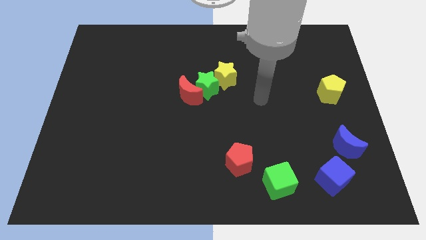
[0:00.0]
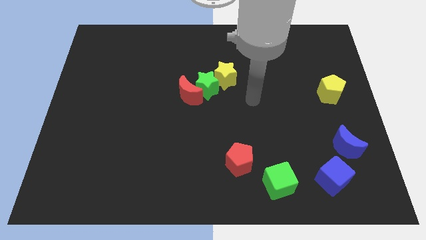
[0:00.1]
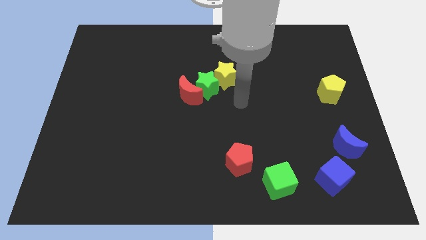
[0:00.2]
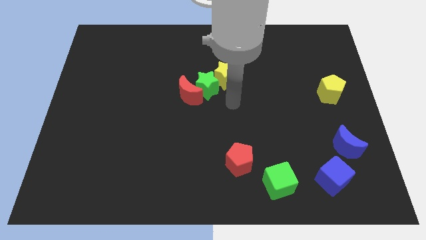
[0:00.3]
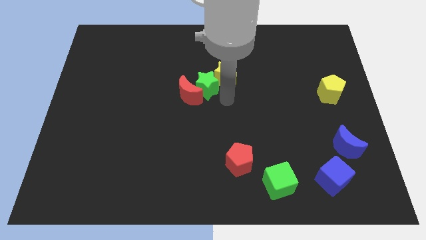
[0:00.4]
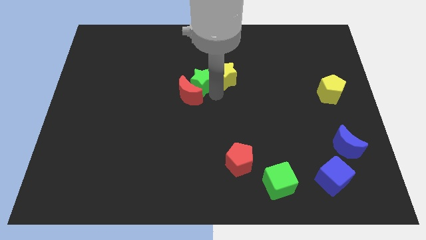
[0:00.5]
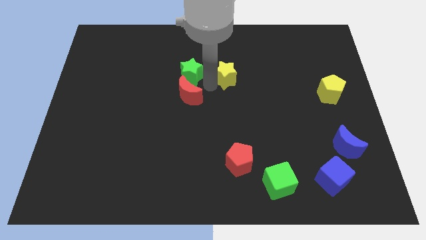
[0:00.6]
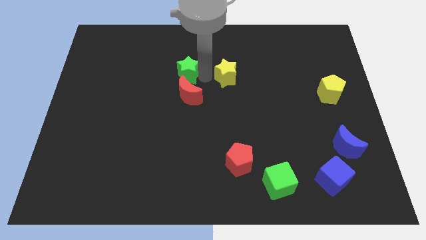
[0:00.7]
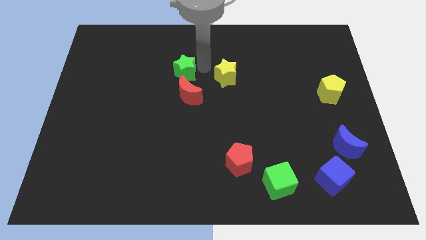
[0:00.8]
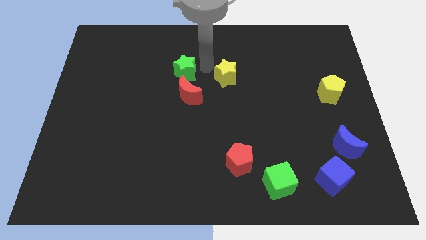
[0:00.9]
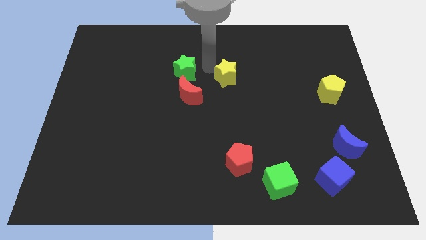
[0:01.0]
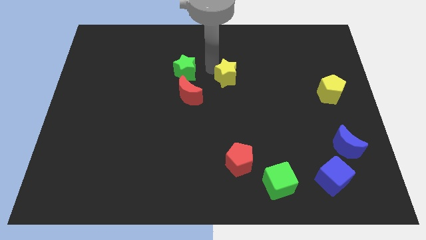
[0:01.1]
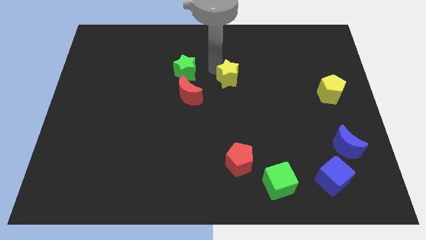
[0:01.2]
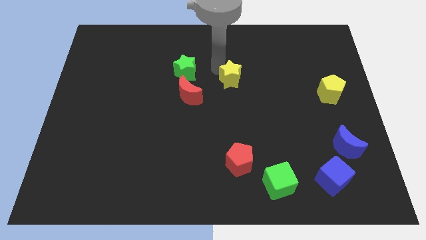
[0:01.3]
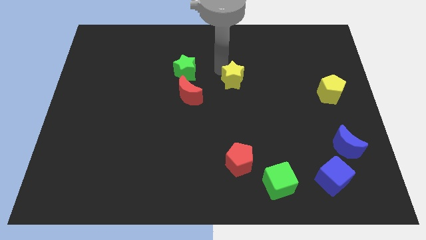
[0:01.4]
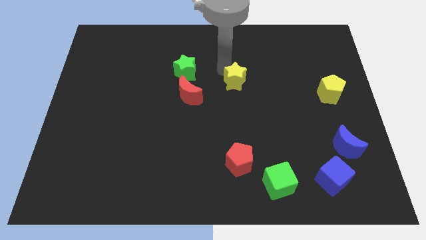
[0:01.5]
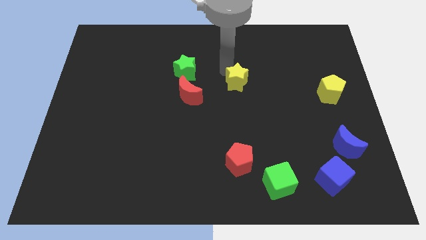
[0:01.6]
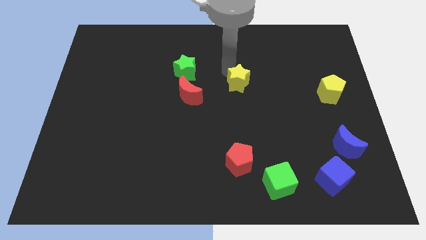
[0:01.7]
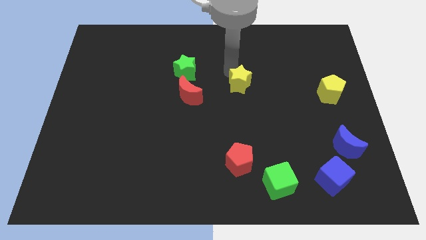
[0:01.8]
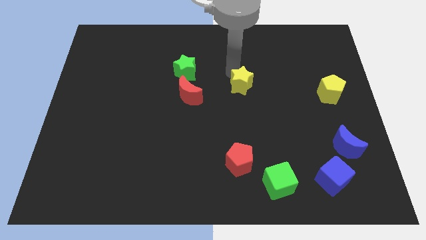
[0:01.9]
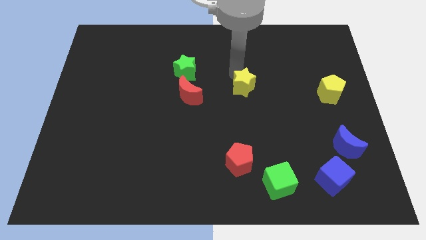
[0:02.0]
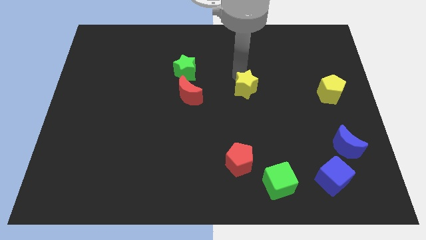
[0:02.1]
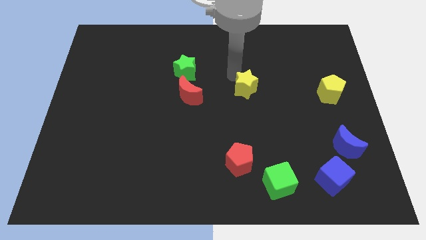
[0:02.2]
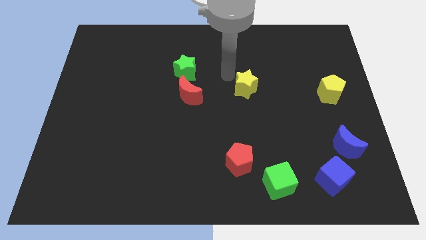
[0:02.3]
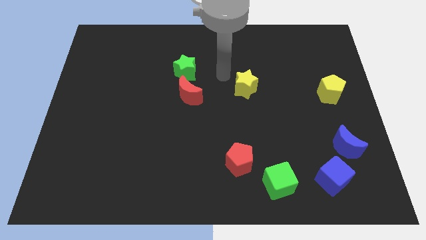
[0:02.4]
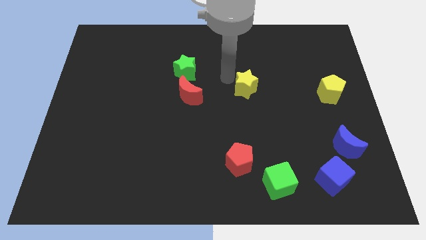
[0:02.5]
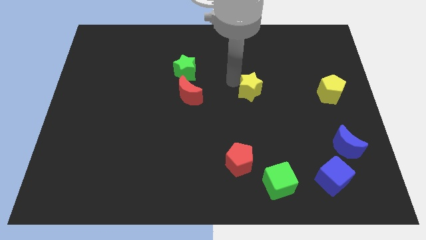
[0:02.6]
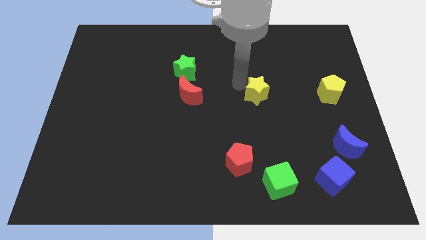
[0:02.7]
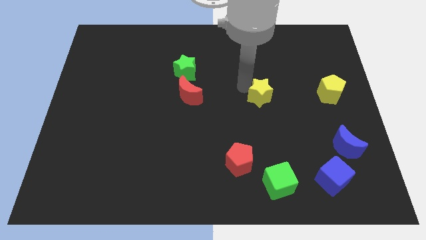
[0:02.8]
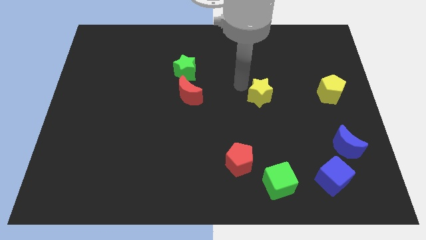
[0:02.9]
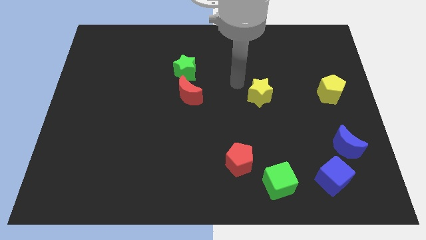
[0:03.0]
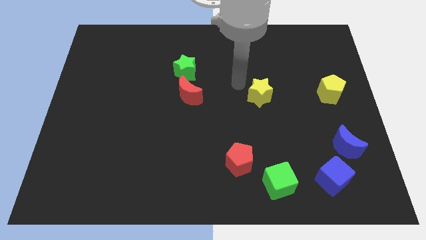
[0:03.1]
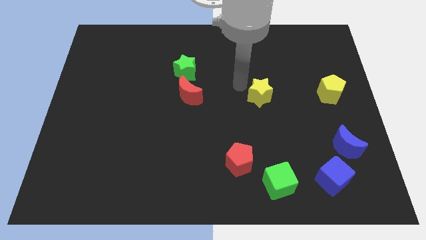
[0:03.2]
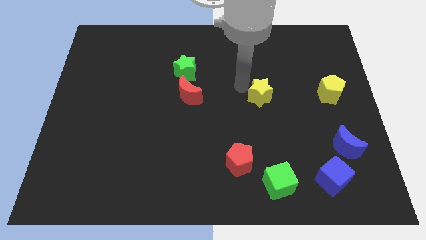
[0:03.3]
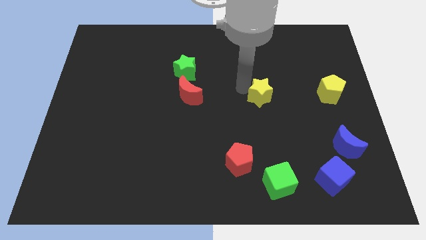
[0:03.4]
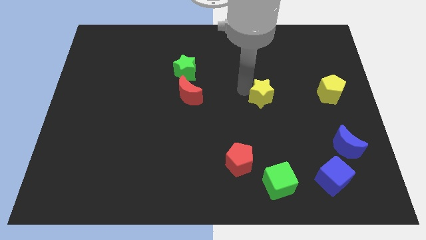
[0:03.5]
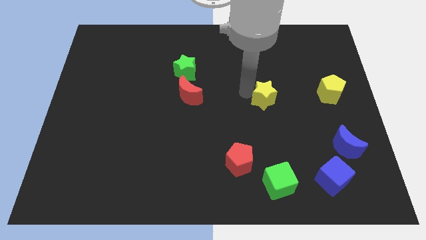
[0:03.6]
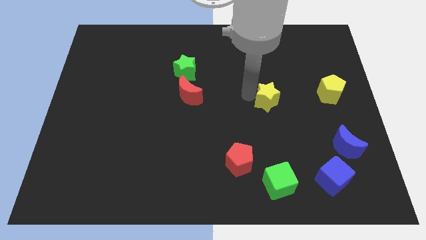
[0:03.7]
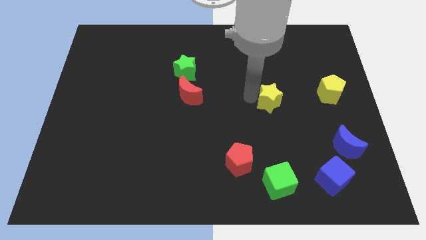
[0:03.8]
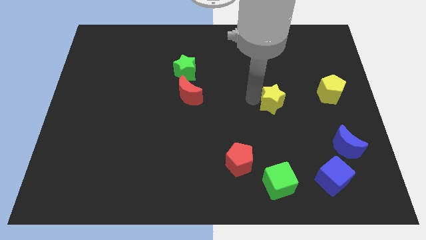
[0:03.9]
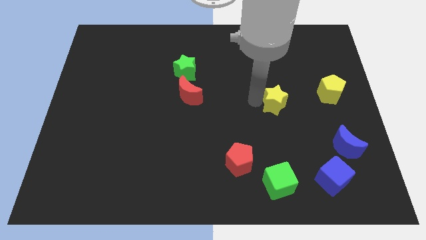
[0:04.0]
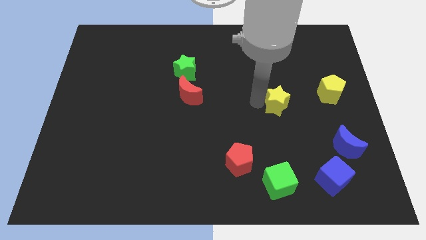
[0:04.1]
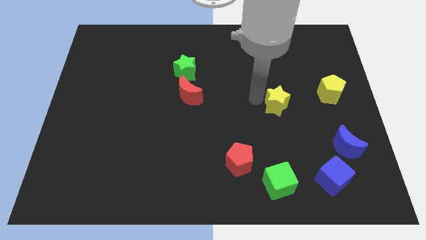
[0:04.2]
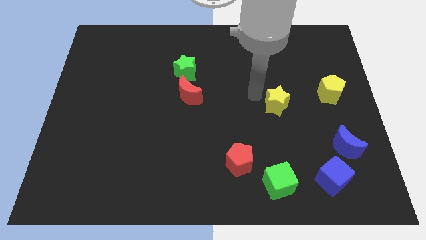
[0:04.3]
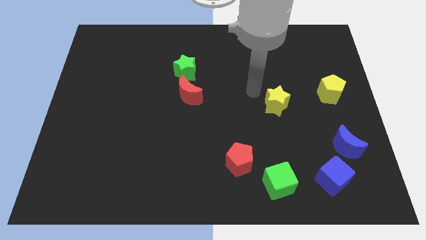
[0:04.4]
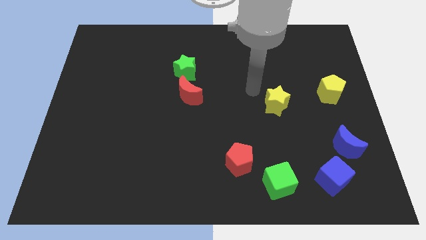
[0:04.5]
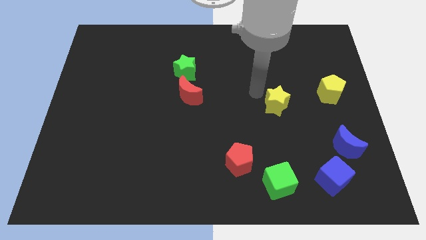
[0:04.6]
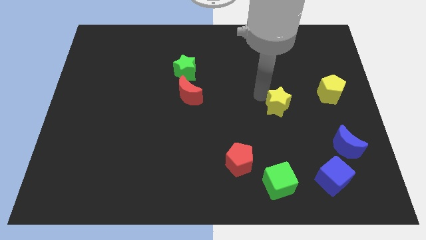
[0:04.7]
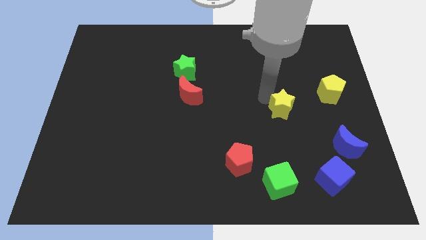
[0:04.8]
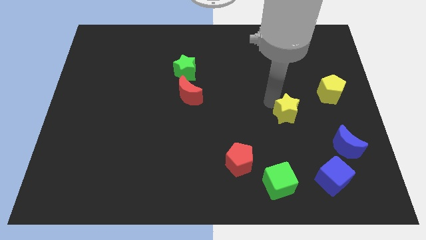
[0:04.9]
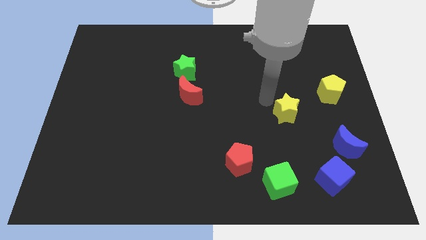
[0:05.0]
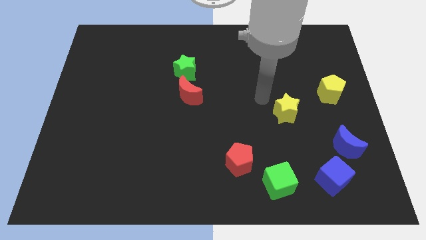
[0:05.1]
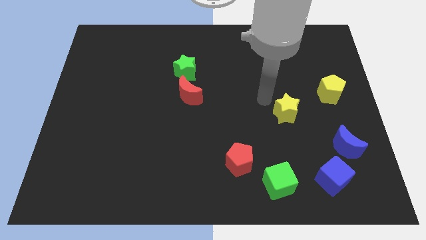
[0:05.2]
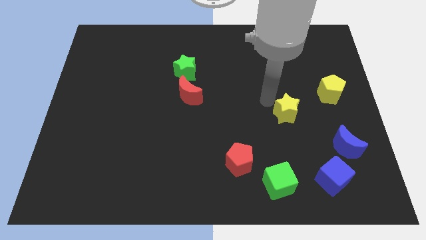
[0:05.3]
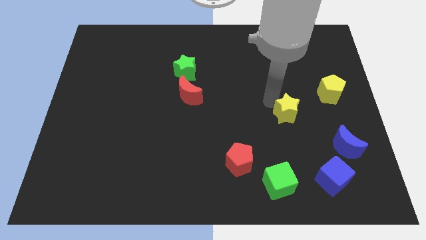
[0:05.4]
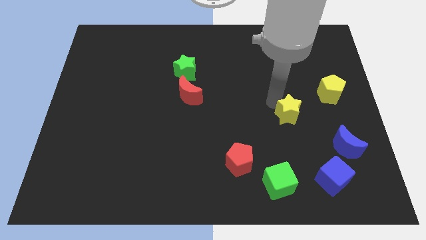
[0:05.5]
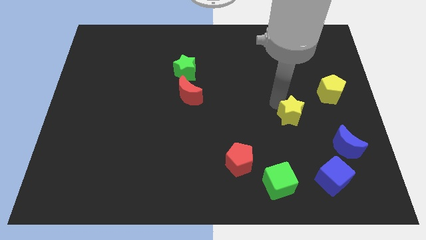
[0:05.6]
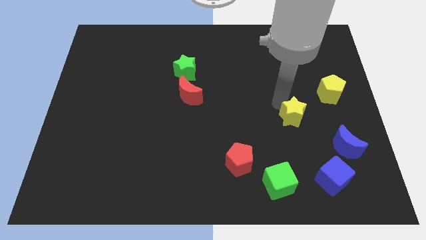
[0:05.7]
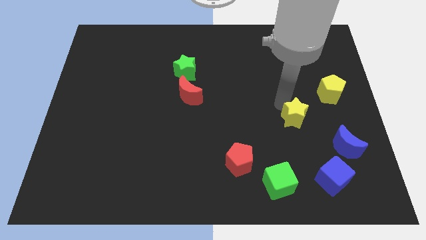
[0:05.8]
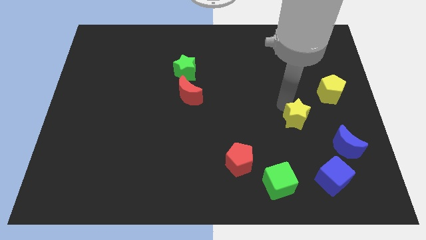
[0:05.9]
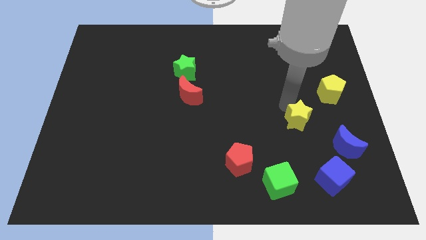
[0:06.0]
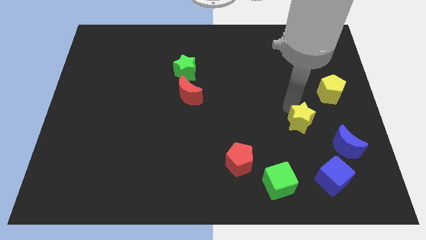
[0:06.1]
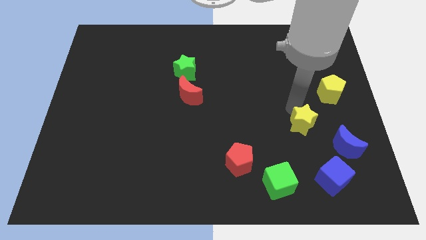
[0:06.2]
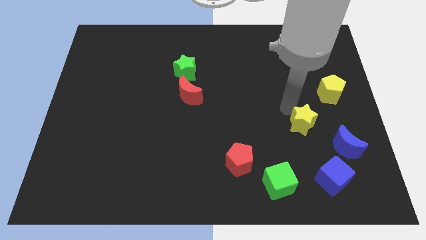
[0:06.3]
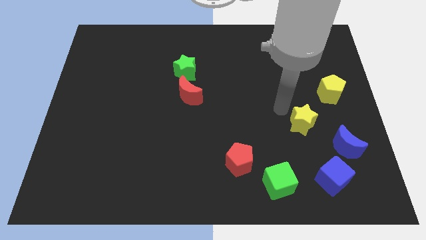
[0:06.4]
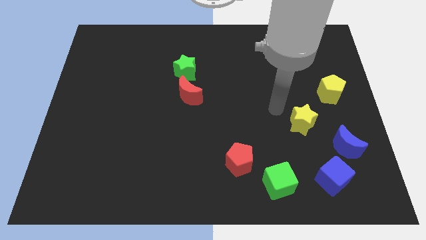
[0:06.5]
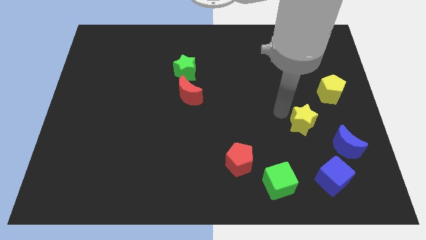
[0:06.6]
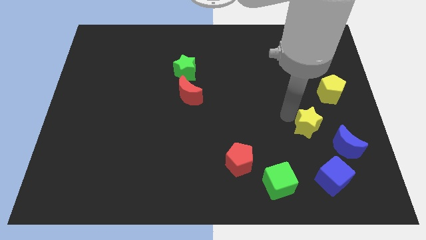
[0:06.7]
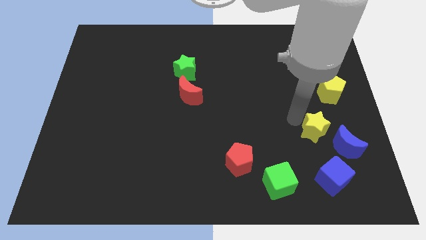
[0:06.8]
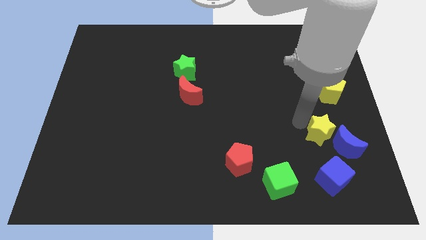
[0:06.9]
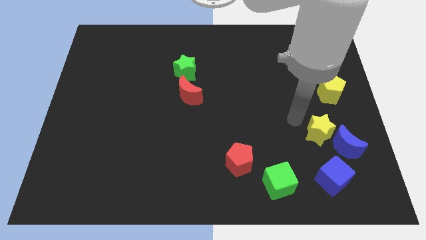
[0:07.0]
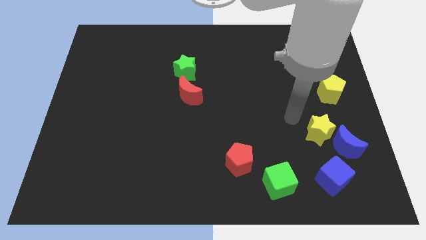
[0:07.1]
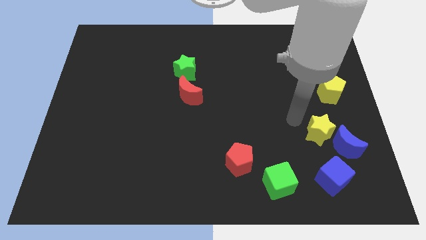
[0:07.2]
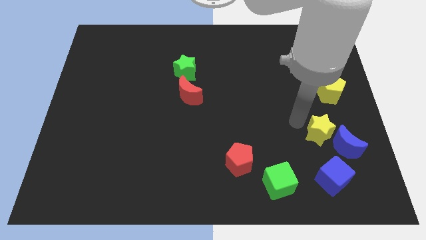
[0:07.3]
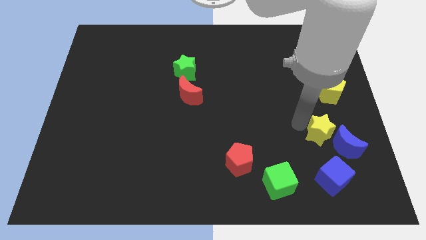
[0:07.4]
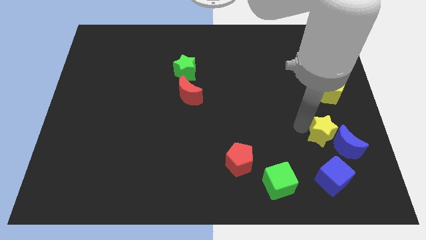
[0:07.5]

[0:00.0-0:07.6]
slide the yellow star close to the blue moon
